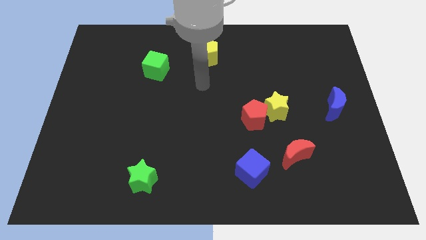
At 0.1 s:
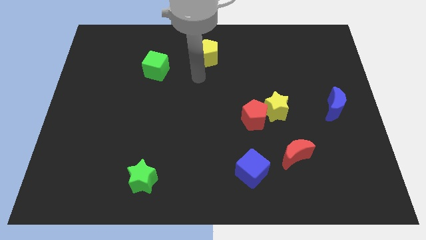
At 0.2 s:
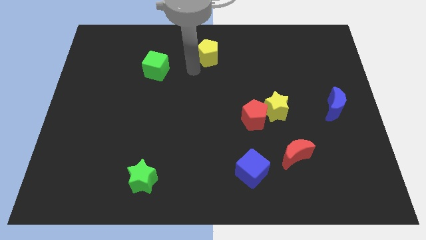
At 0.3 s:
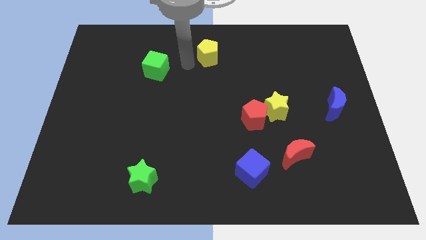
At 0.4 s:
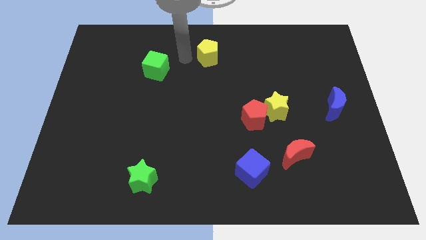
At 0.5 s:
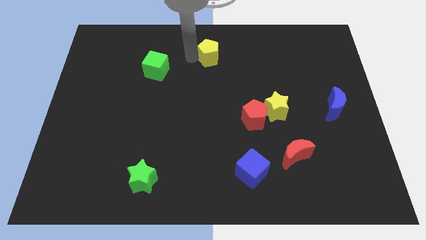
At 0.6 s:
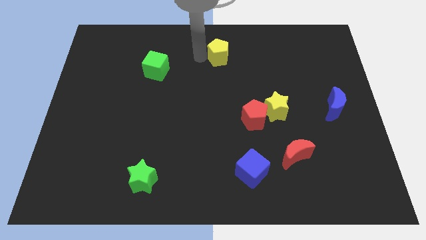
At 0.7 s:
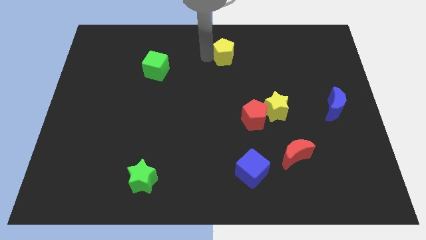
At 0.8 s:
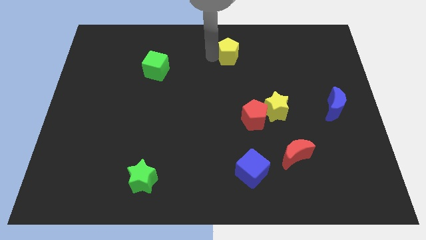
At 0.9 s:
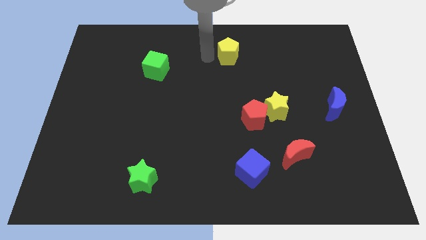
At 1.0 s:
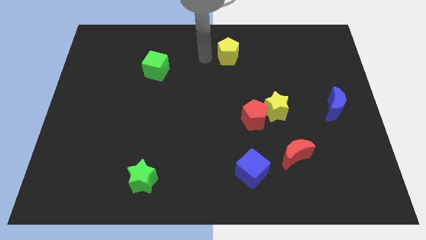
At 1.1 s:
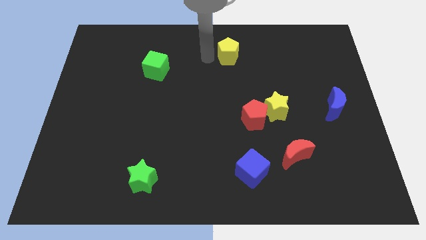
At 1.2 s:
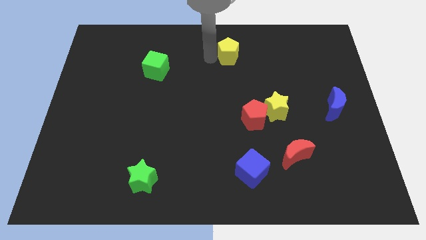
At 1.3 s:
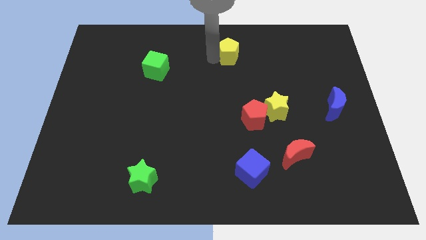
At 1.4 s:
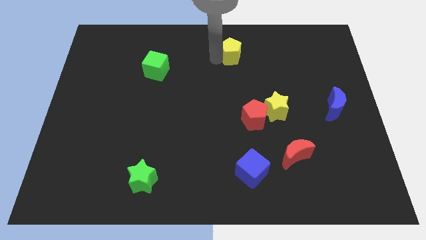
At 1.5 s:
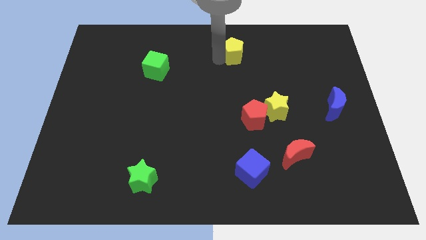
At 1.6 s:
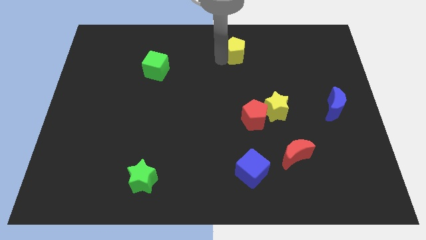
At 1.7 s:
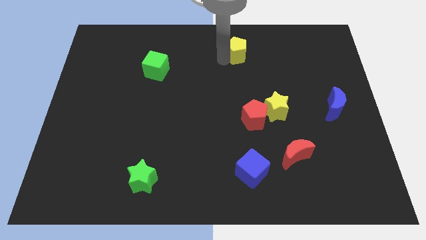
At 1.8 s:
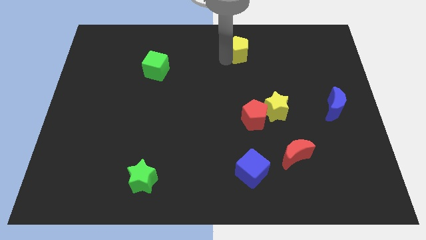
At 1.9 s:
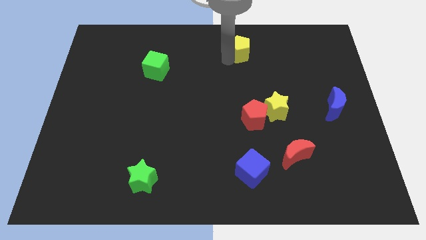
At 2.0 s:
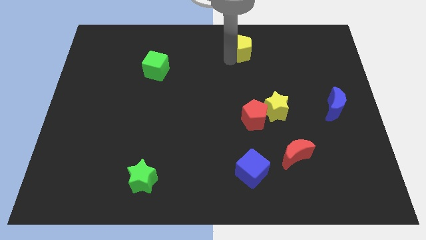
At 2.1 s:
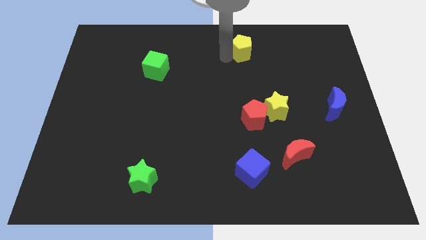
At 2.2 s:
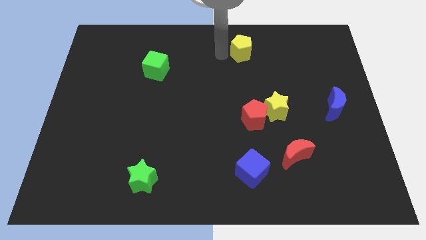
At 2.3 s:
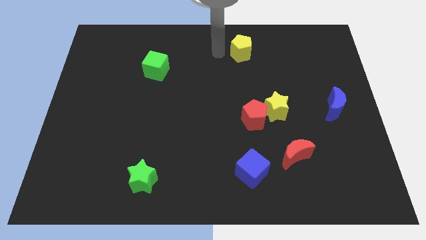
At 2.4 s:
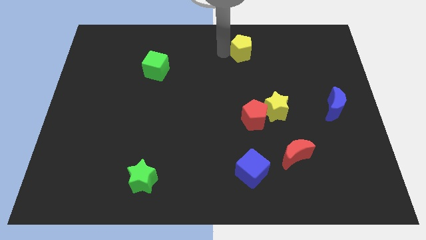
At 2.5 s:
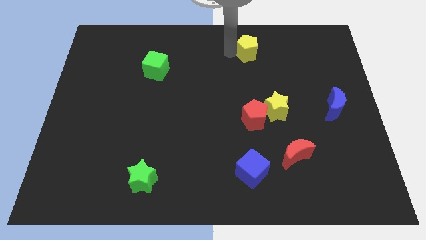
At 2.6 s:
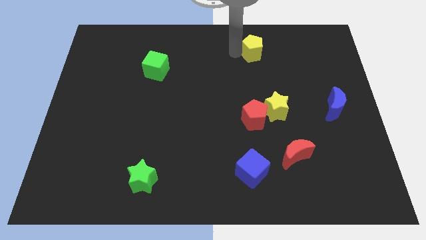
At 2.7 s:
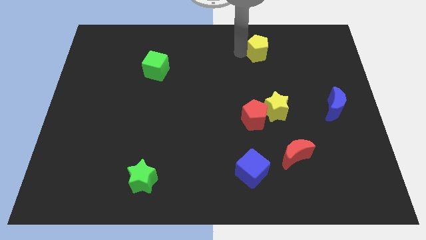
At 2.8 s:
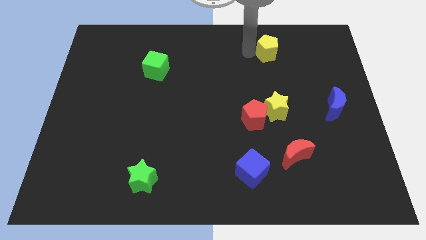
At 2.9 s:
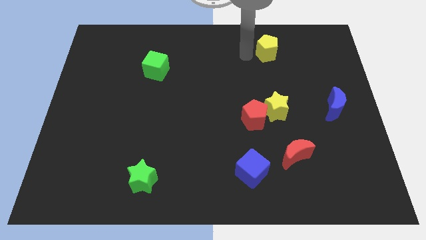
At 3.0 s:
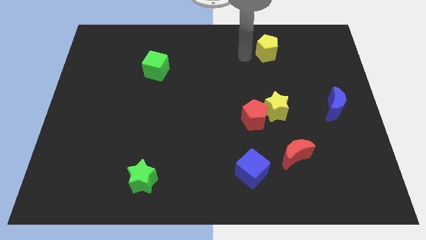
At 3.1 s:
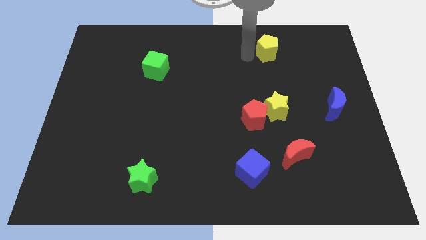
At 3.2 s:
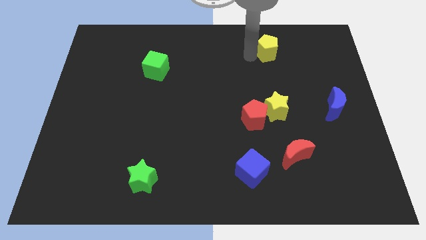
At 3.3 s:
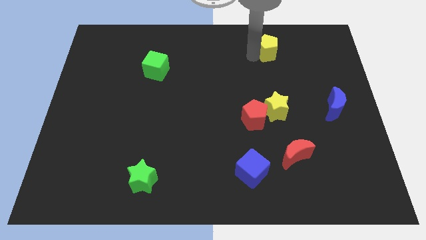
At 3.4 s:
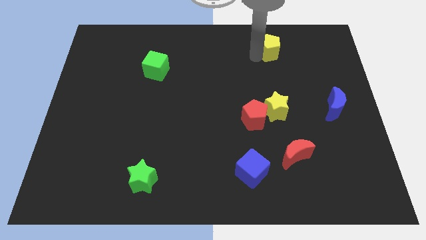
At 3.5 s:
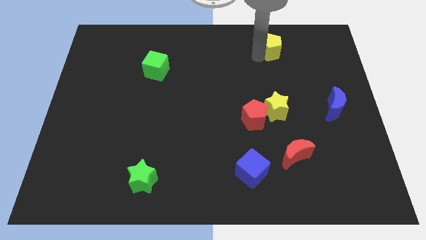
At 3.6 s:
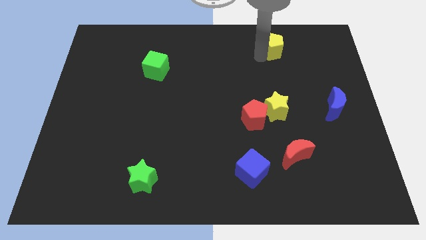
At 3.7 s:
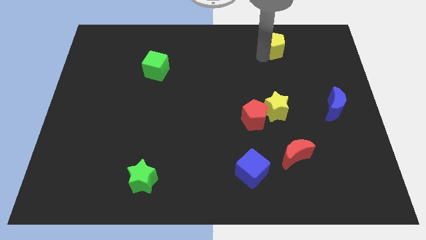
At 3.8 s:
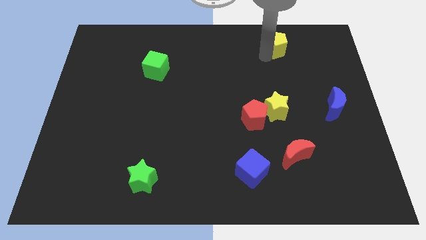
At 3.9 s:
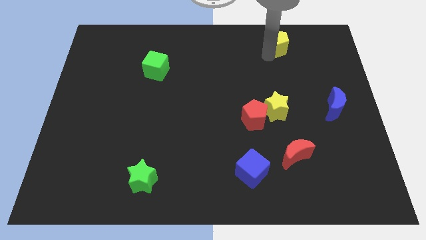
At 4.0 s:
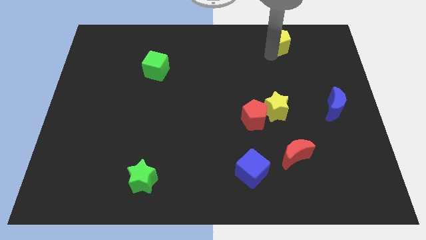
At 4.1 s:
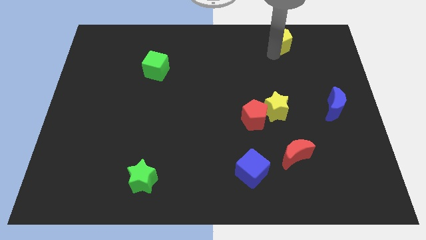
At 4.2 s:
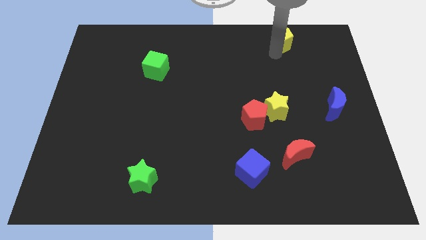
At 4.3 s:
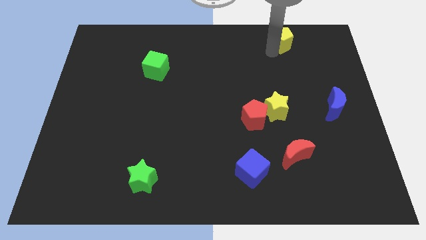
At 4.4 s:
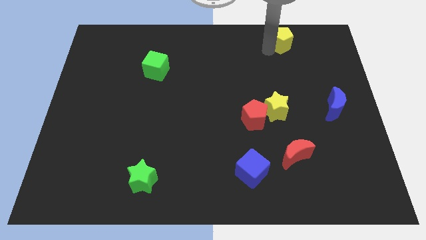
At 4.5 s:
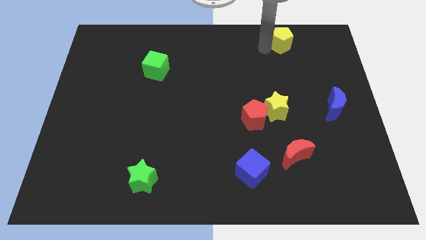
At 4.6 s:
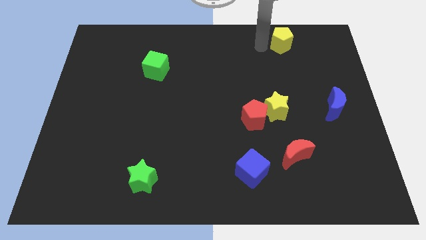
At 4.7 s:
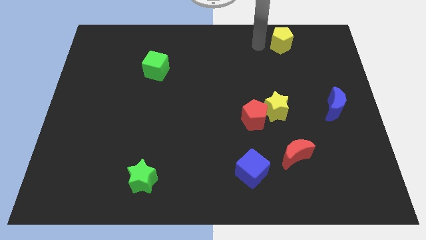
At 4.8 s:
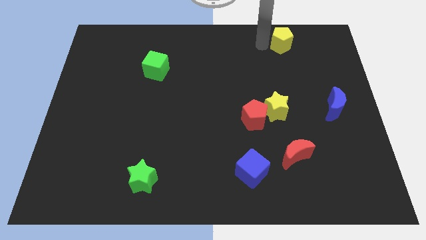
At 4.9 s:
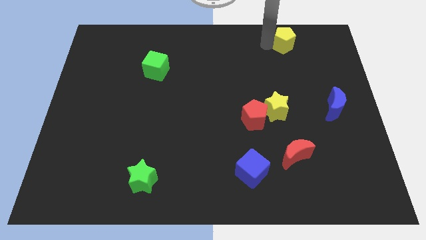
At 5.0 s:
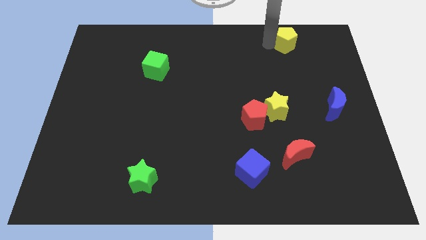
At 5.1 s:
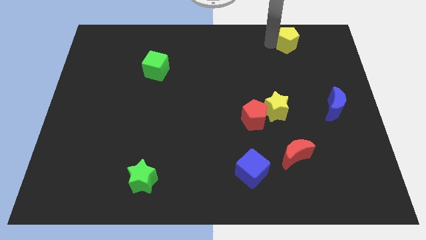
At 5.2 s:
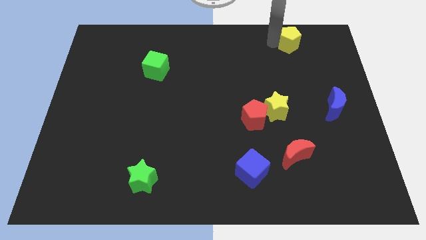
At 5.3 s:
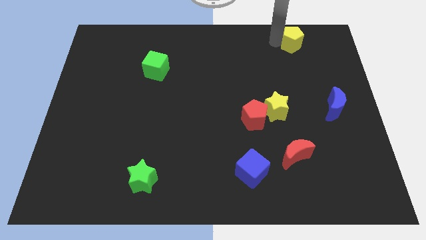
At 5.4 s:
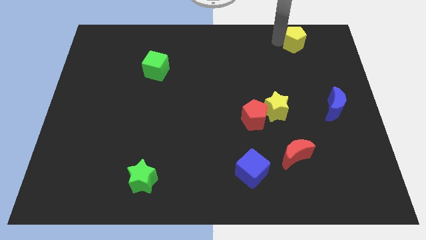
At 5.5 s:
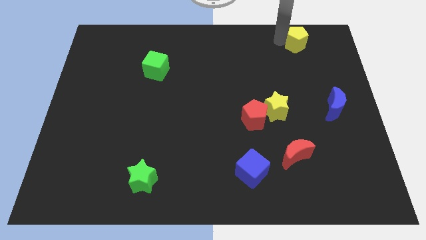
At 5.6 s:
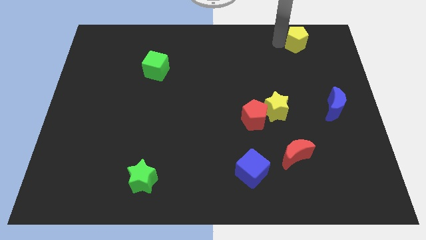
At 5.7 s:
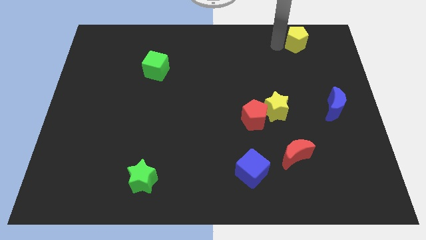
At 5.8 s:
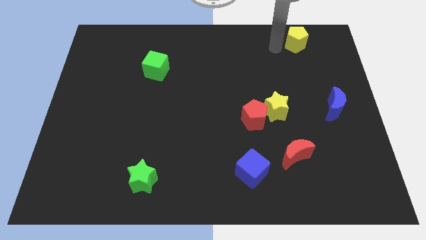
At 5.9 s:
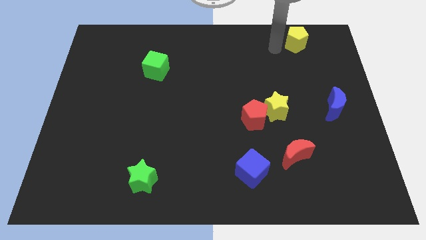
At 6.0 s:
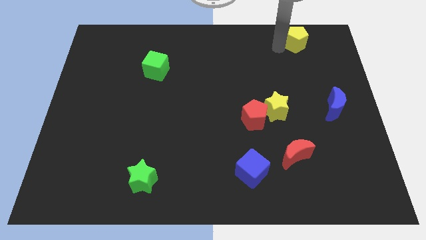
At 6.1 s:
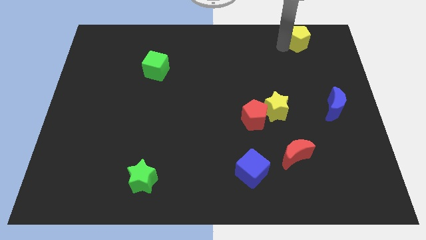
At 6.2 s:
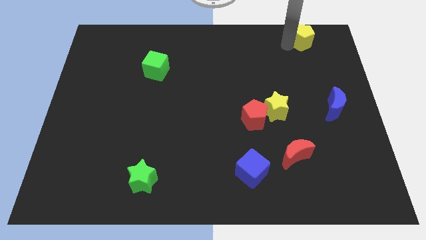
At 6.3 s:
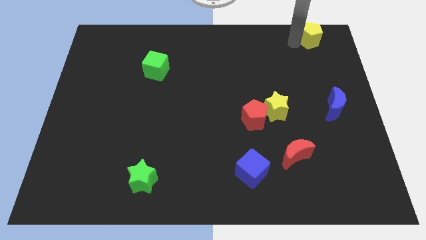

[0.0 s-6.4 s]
put the yellow pentagon to the top right of the board
